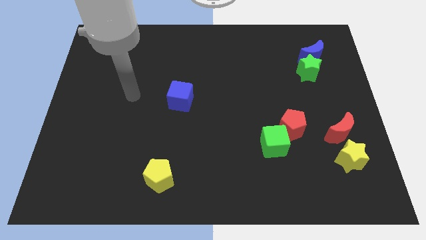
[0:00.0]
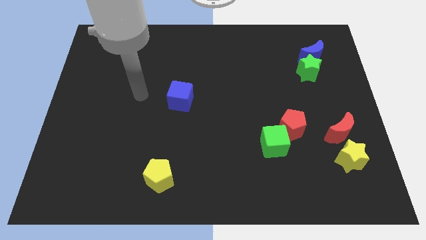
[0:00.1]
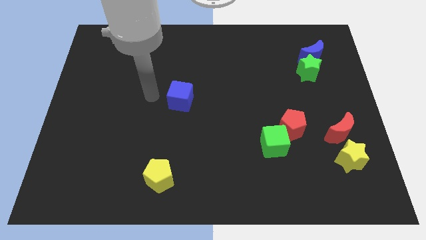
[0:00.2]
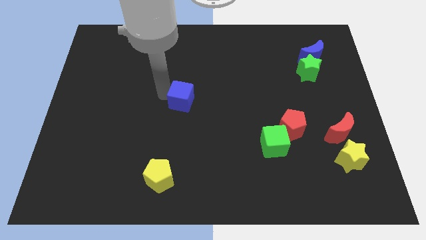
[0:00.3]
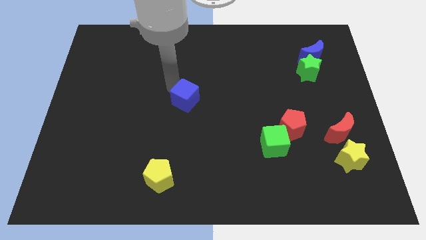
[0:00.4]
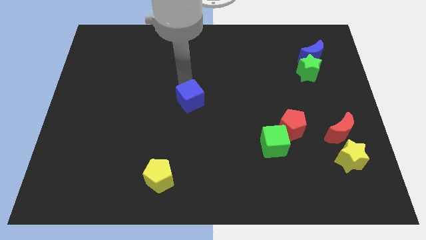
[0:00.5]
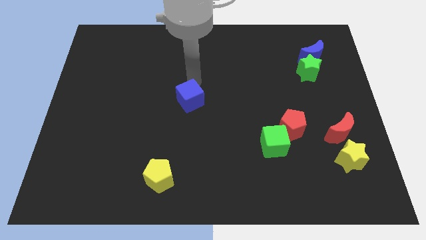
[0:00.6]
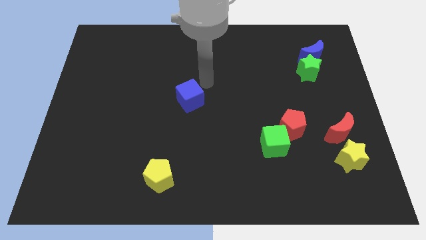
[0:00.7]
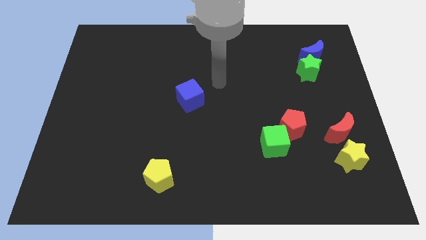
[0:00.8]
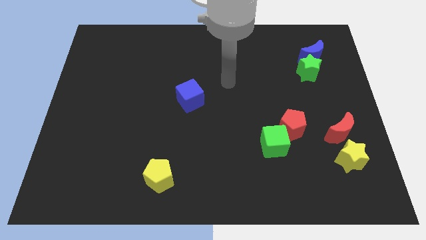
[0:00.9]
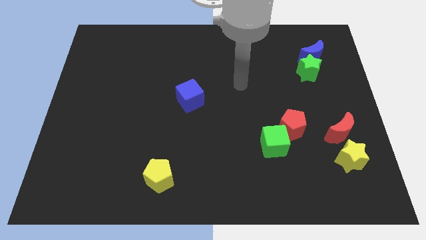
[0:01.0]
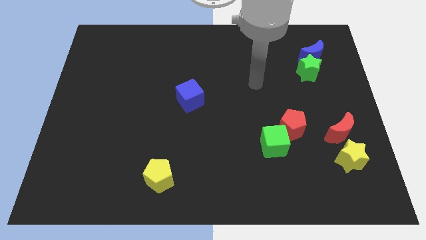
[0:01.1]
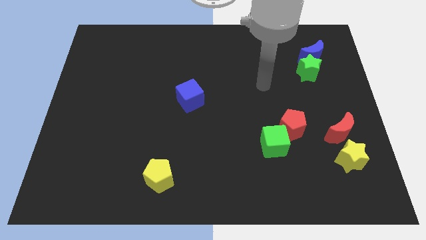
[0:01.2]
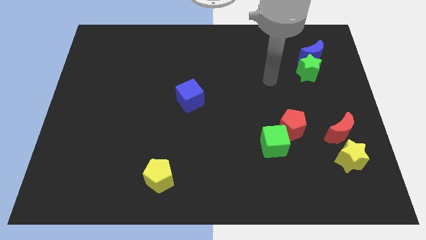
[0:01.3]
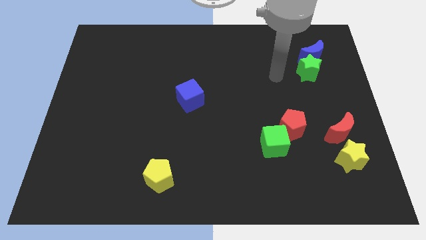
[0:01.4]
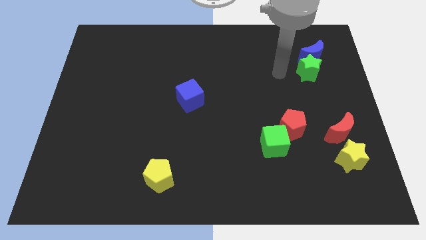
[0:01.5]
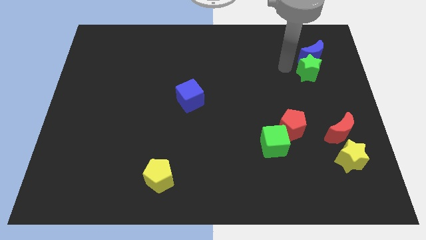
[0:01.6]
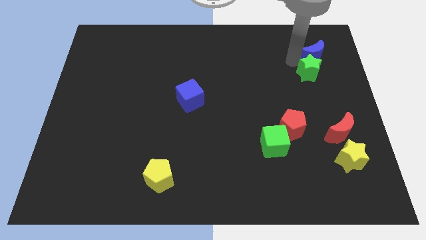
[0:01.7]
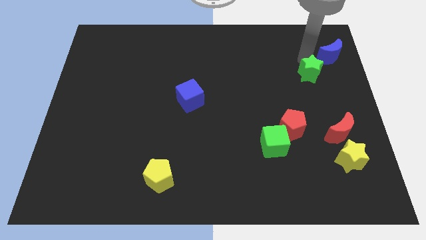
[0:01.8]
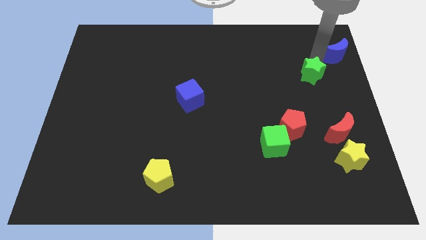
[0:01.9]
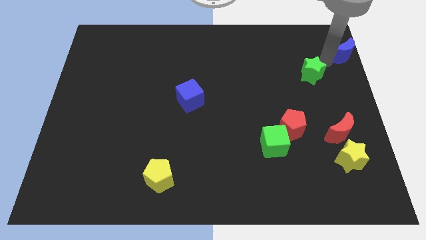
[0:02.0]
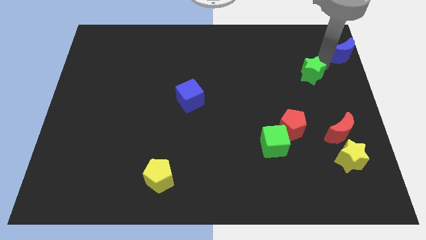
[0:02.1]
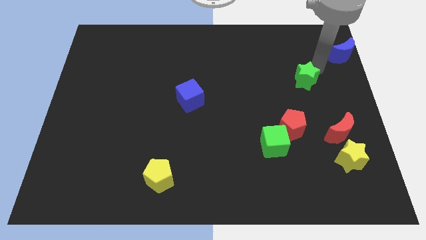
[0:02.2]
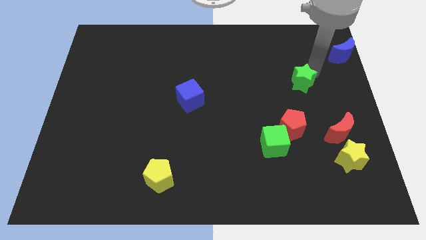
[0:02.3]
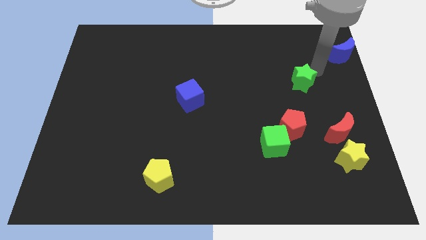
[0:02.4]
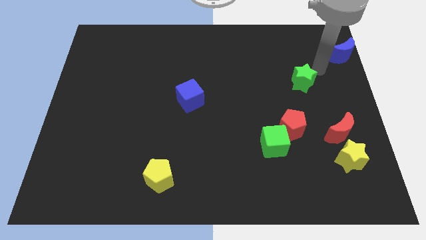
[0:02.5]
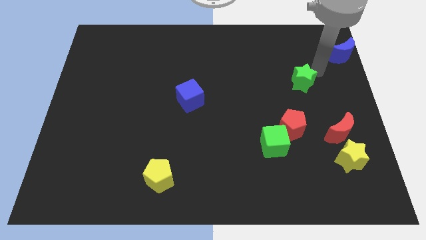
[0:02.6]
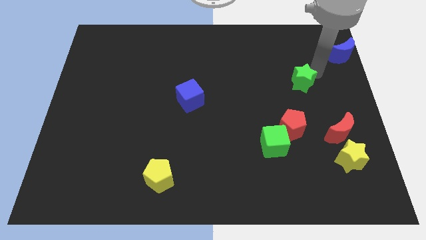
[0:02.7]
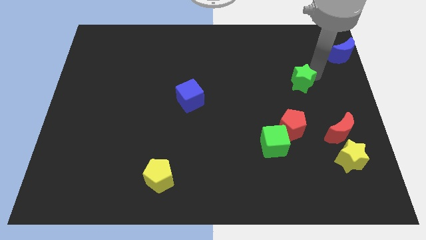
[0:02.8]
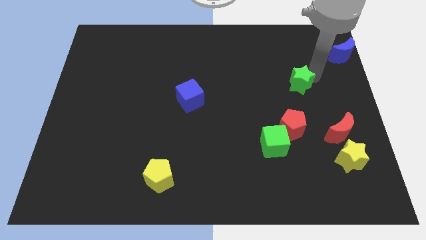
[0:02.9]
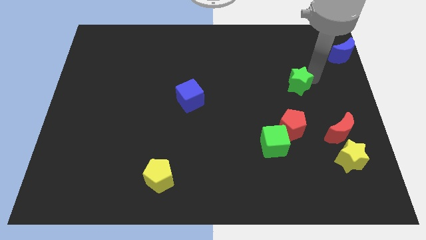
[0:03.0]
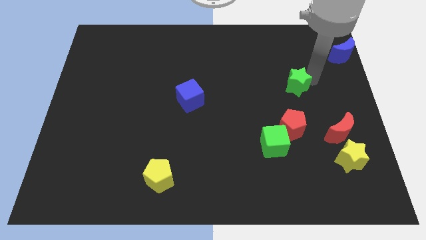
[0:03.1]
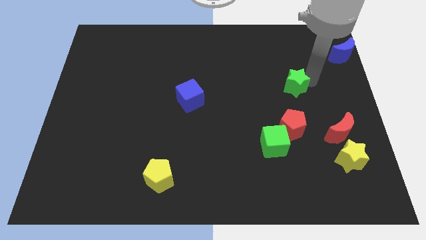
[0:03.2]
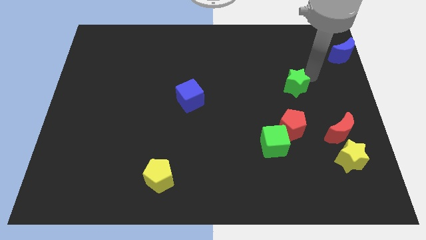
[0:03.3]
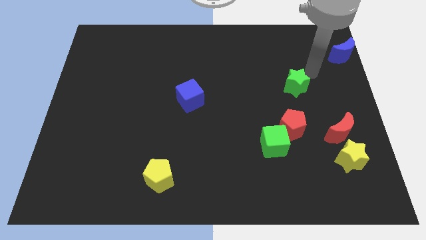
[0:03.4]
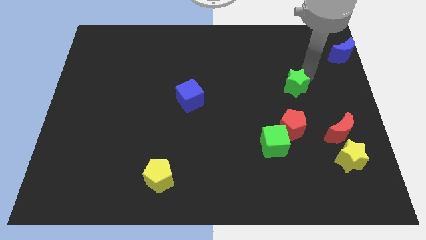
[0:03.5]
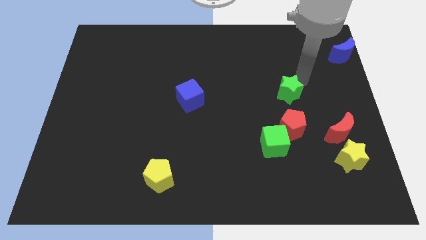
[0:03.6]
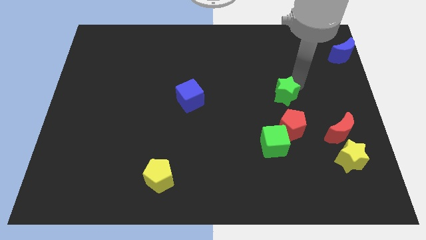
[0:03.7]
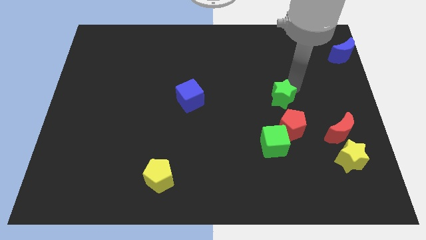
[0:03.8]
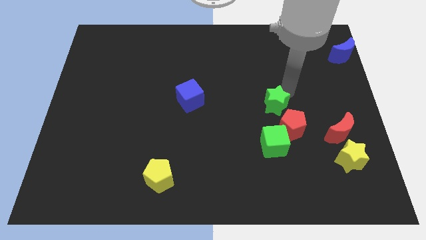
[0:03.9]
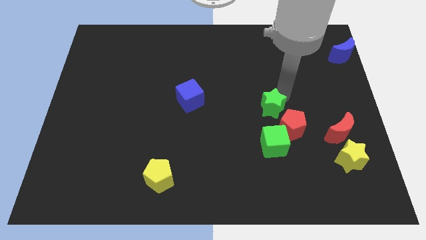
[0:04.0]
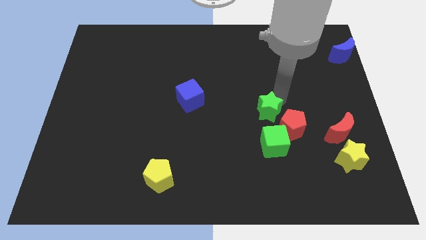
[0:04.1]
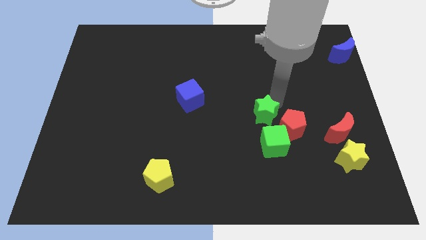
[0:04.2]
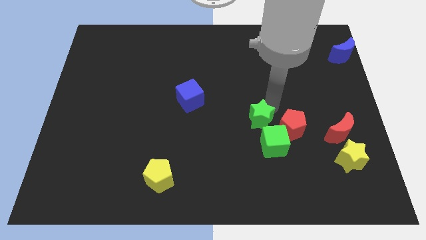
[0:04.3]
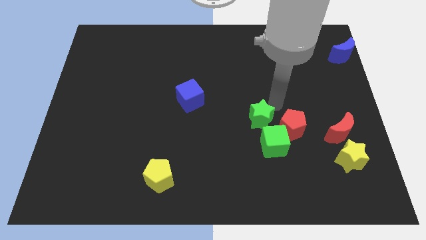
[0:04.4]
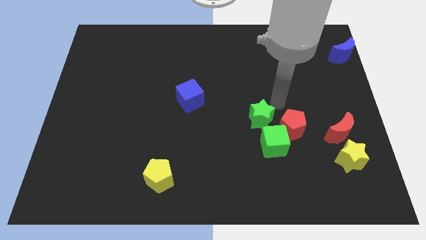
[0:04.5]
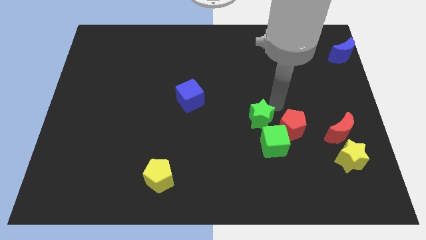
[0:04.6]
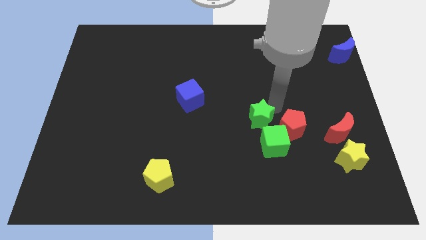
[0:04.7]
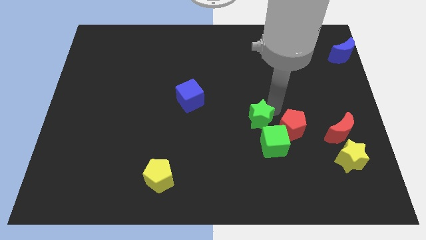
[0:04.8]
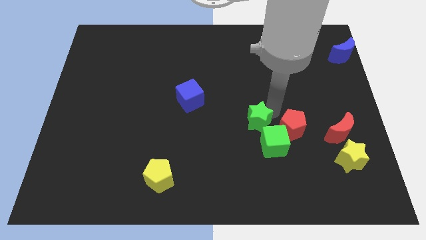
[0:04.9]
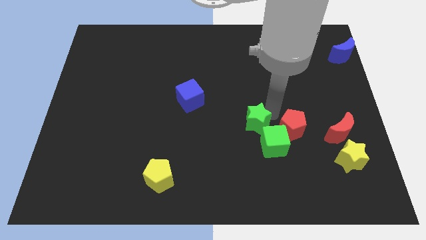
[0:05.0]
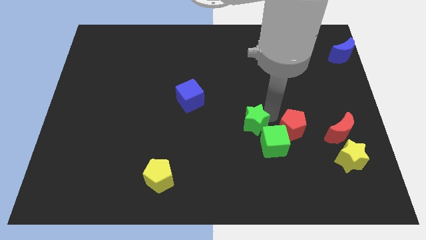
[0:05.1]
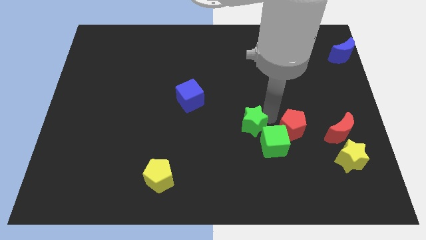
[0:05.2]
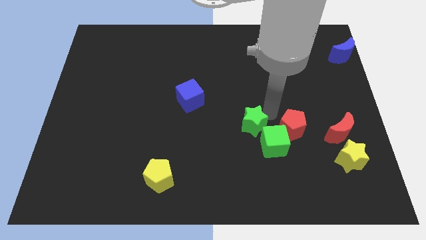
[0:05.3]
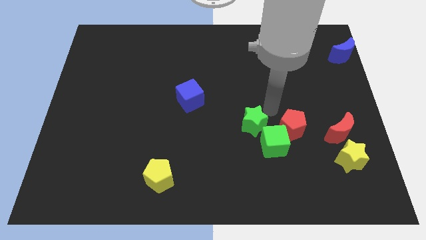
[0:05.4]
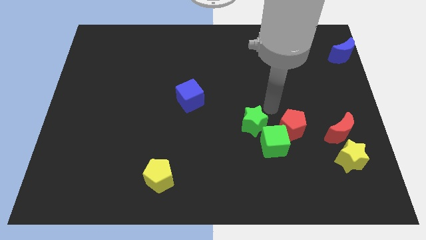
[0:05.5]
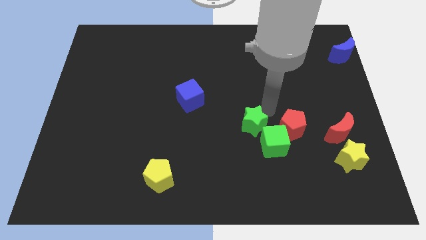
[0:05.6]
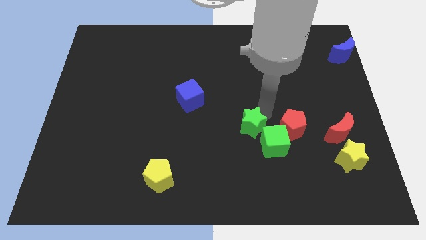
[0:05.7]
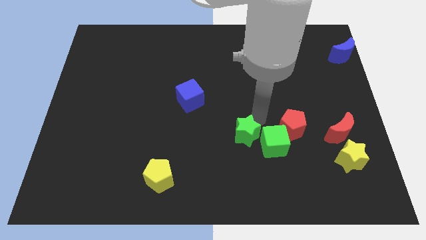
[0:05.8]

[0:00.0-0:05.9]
put the green star to the left side of the green cube

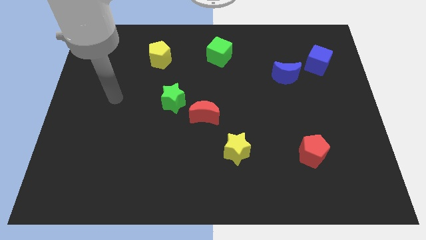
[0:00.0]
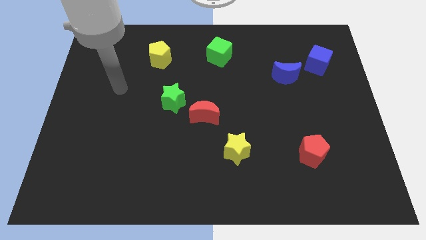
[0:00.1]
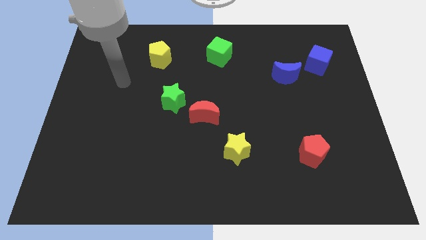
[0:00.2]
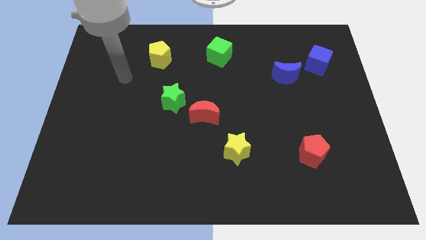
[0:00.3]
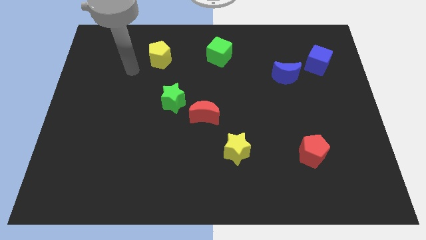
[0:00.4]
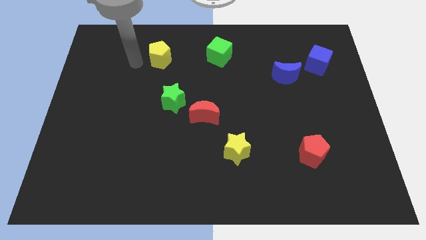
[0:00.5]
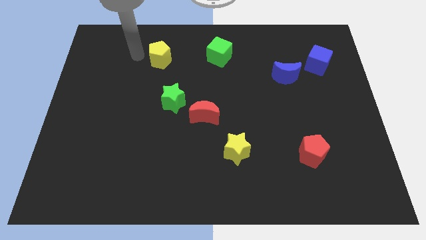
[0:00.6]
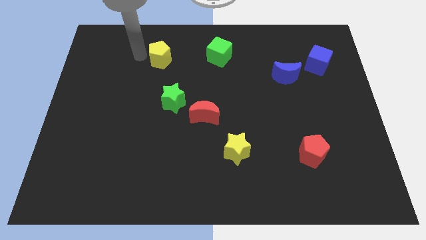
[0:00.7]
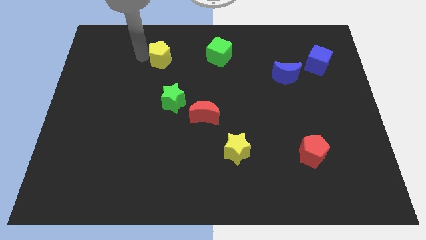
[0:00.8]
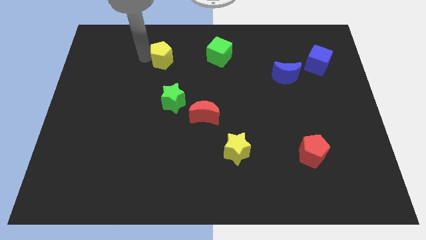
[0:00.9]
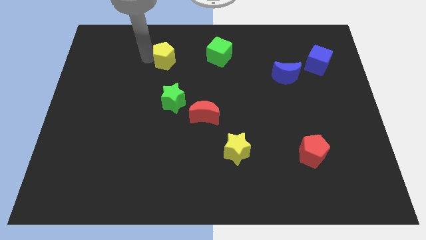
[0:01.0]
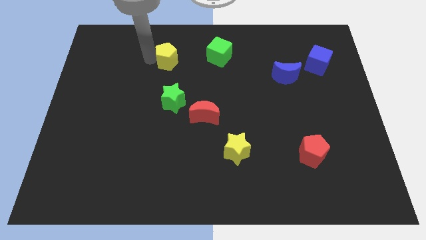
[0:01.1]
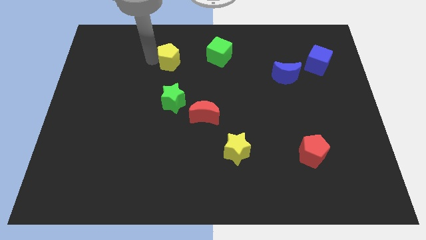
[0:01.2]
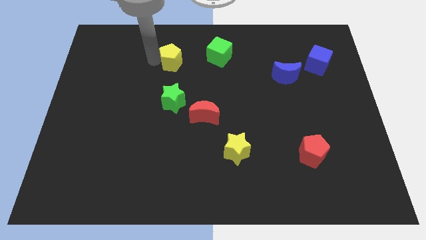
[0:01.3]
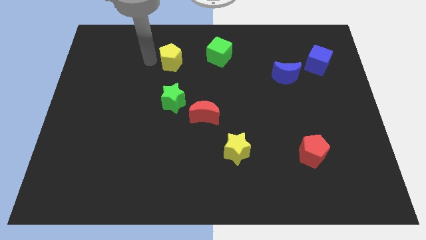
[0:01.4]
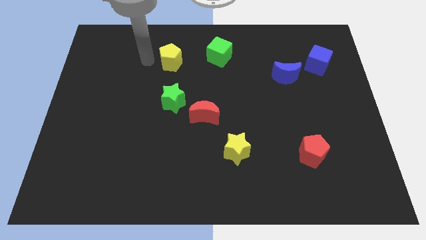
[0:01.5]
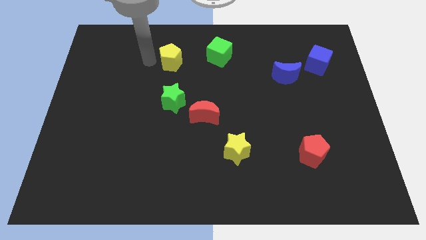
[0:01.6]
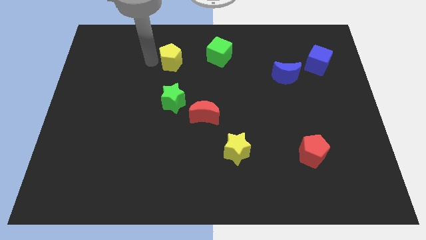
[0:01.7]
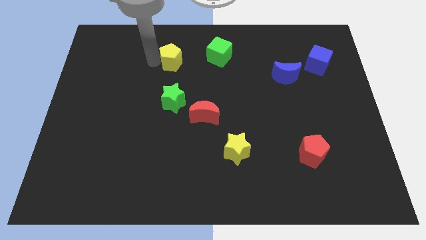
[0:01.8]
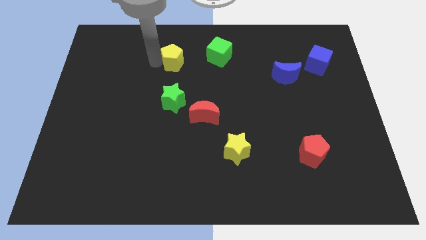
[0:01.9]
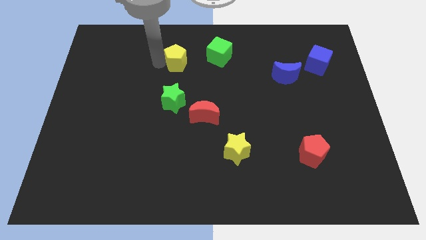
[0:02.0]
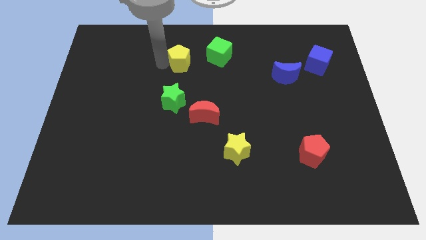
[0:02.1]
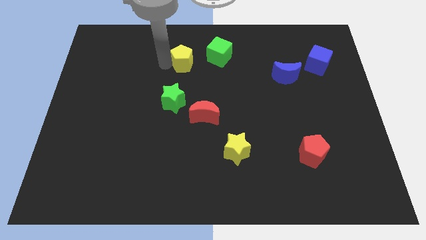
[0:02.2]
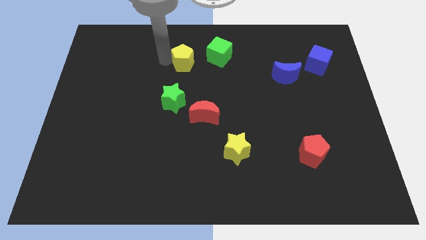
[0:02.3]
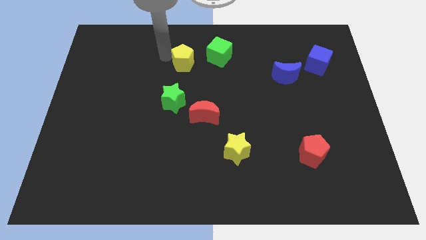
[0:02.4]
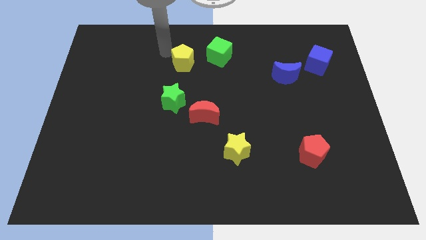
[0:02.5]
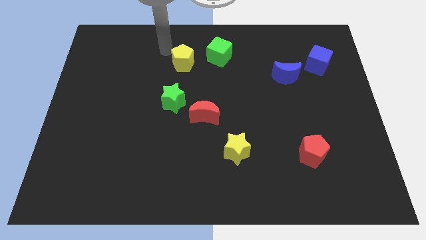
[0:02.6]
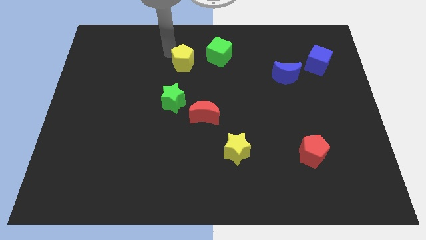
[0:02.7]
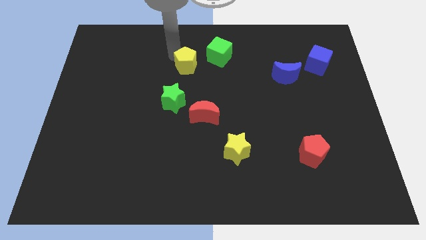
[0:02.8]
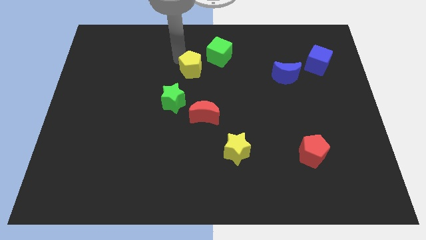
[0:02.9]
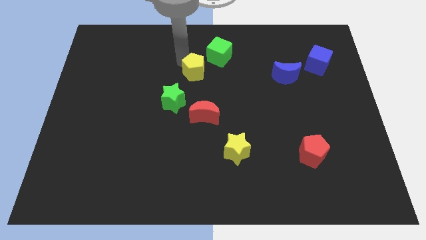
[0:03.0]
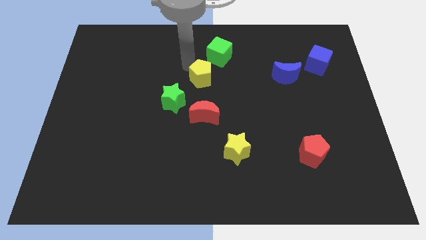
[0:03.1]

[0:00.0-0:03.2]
slide the yellow pentagon below the green cube
